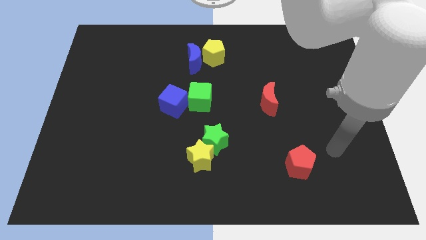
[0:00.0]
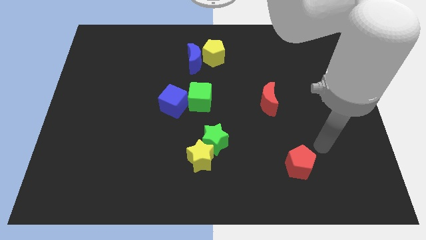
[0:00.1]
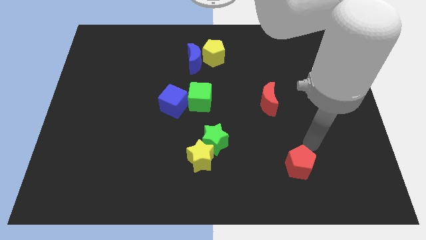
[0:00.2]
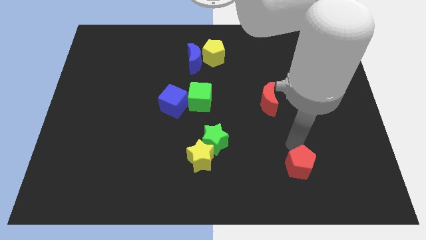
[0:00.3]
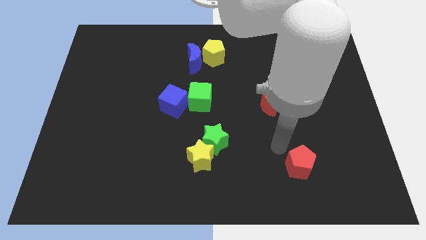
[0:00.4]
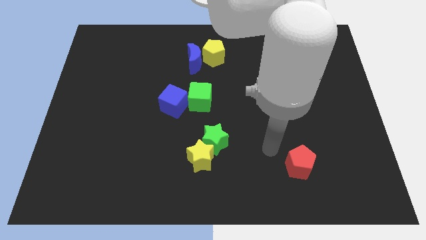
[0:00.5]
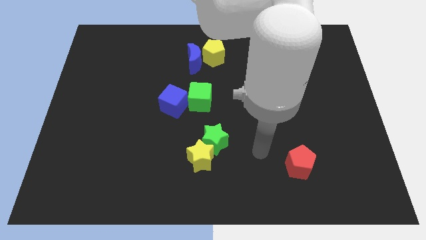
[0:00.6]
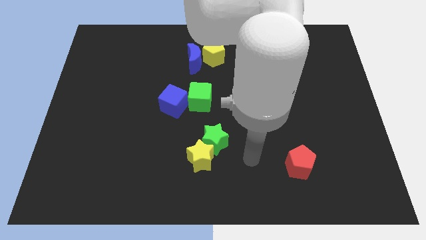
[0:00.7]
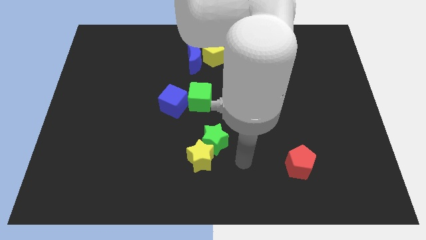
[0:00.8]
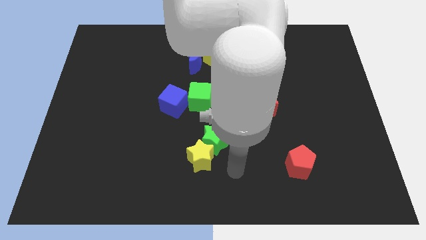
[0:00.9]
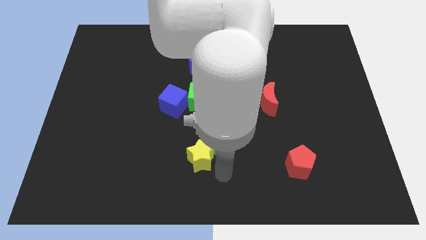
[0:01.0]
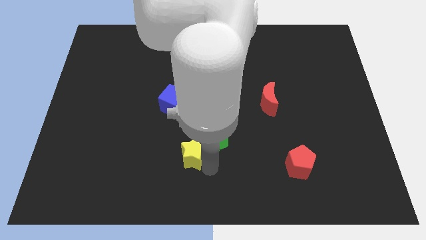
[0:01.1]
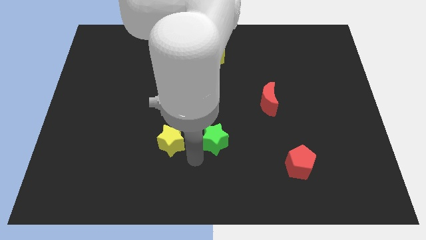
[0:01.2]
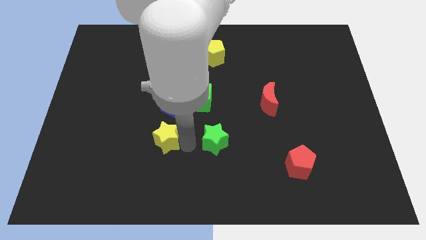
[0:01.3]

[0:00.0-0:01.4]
pull the green star apart from the yellow star

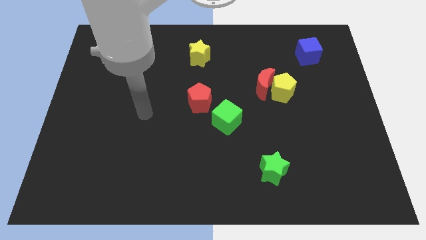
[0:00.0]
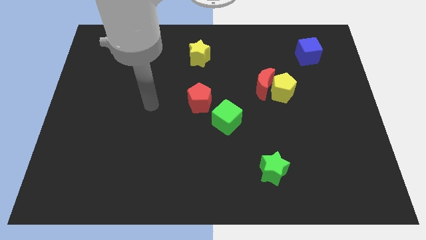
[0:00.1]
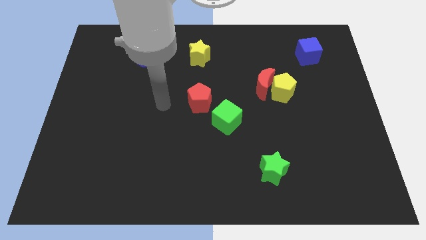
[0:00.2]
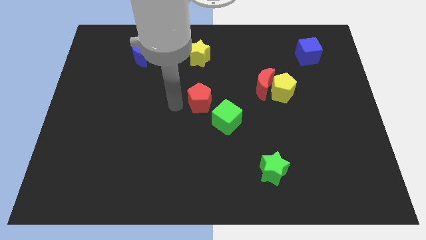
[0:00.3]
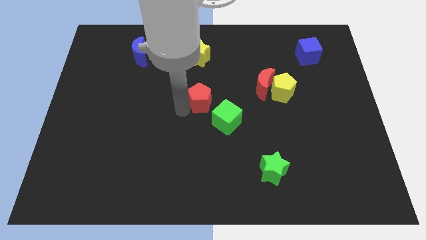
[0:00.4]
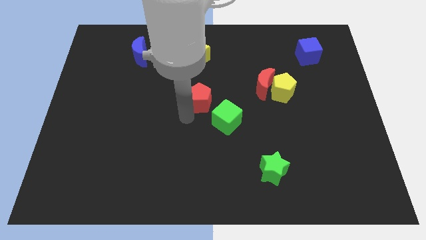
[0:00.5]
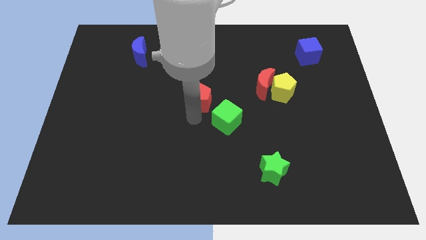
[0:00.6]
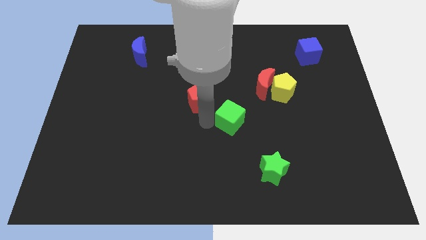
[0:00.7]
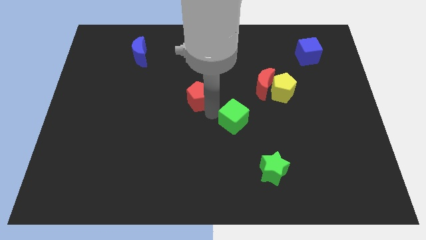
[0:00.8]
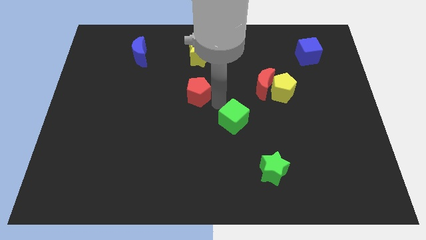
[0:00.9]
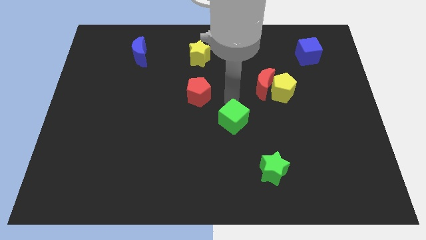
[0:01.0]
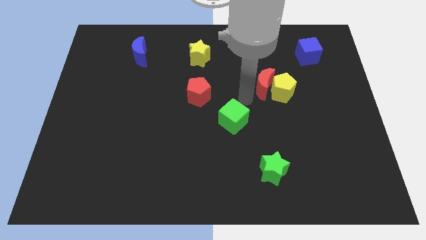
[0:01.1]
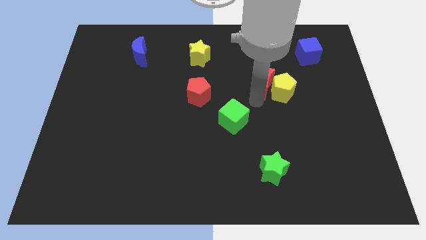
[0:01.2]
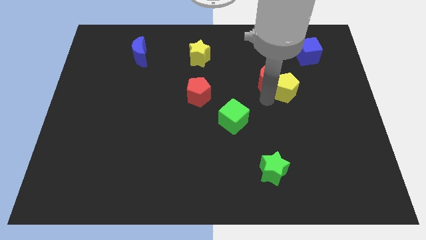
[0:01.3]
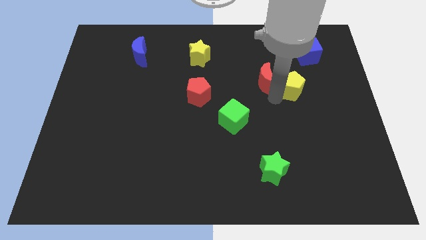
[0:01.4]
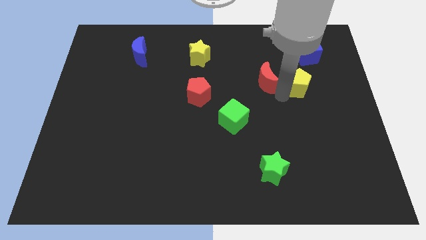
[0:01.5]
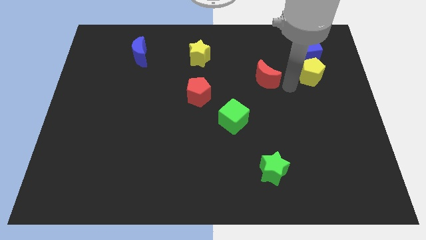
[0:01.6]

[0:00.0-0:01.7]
move the red moon away from the yellow pentagon

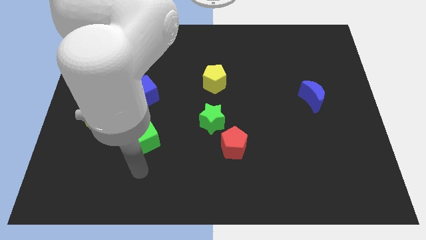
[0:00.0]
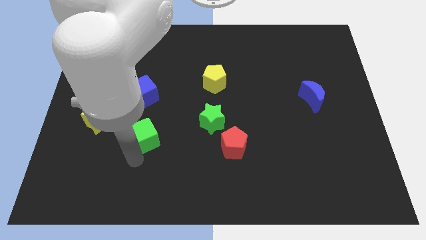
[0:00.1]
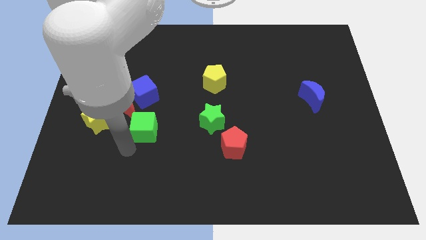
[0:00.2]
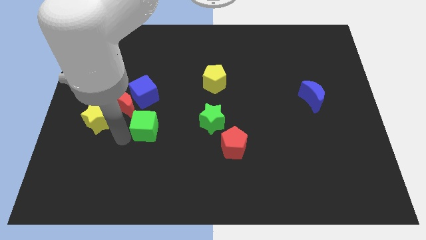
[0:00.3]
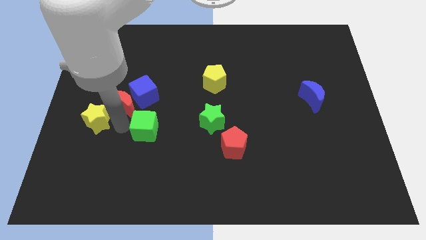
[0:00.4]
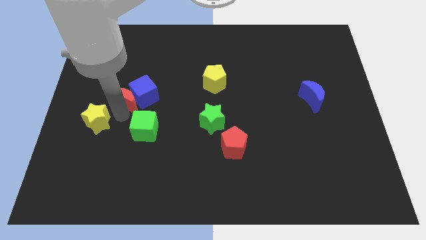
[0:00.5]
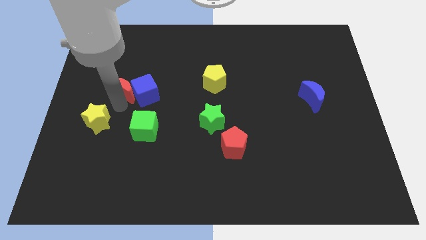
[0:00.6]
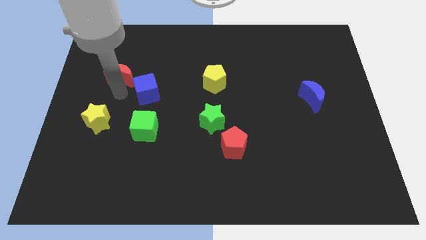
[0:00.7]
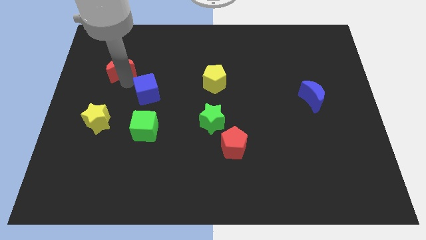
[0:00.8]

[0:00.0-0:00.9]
move the blue cube away from the red moon

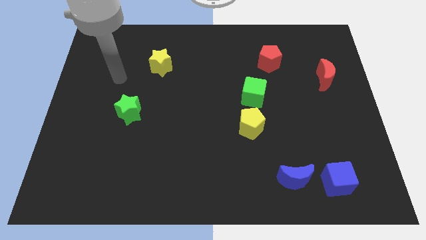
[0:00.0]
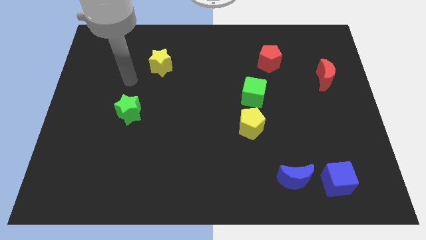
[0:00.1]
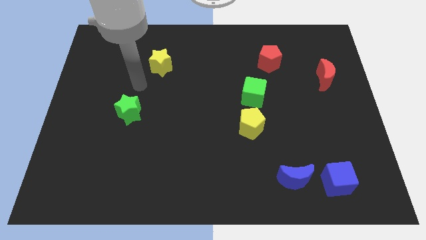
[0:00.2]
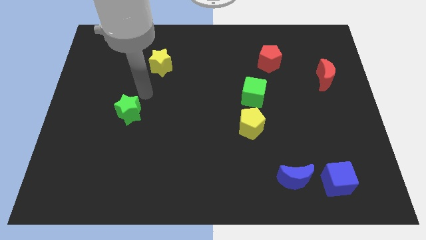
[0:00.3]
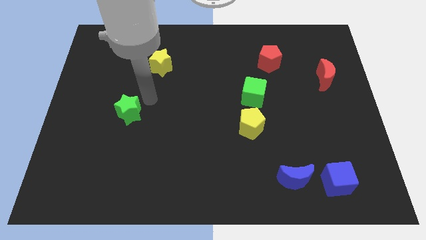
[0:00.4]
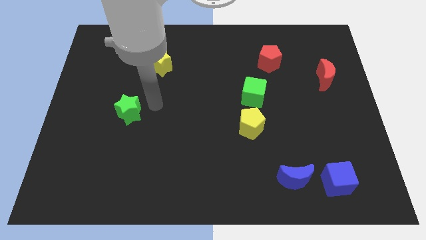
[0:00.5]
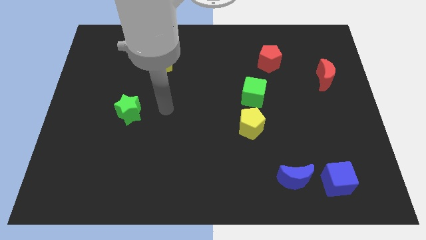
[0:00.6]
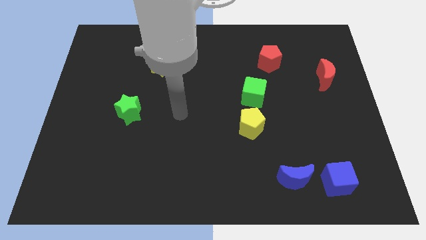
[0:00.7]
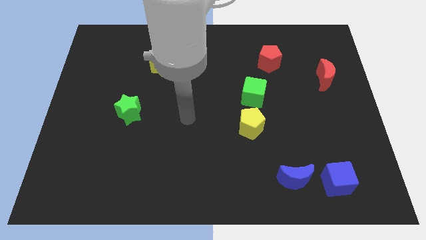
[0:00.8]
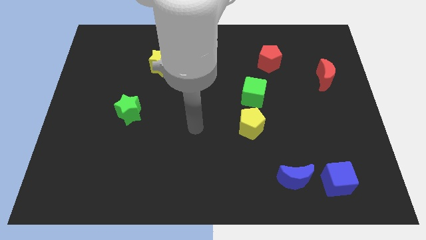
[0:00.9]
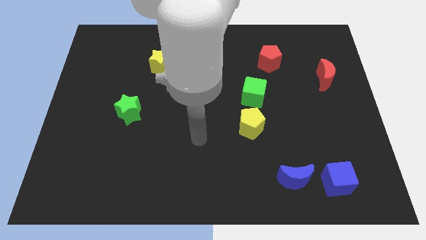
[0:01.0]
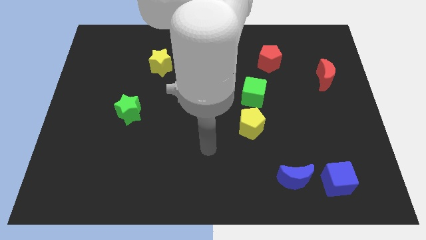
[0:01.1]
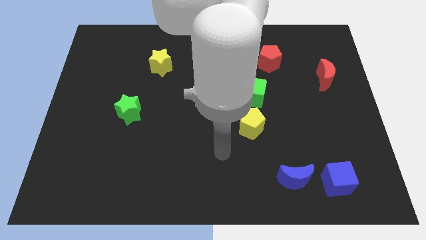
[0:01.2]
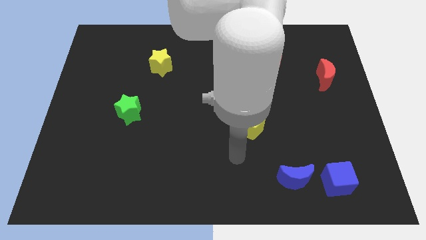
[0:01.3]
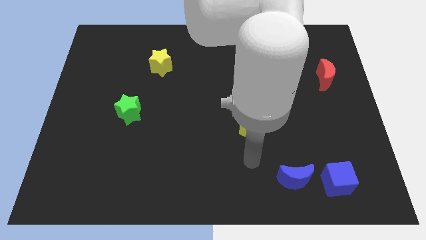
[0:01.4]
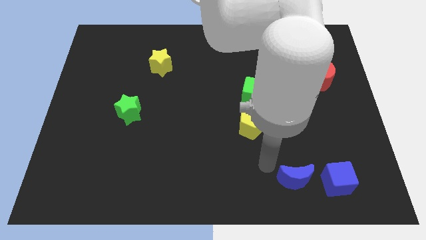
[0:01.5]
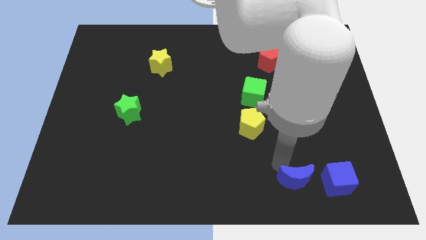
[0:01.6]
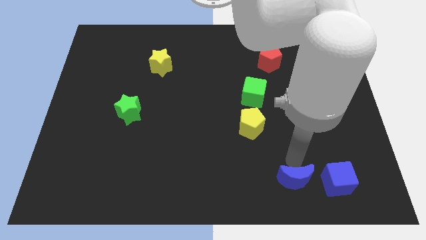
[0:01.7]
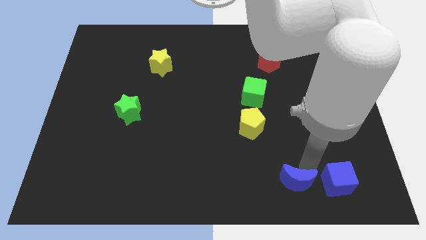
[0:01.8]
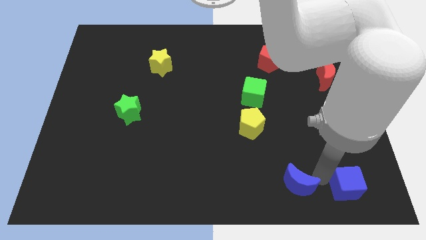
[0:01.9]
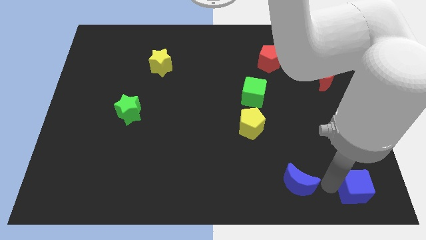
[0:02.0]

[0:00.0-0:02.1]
separate the blue moon from the blue cube

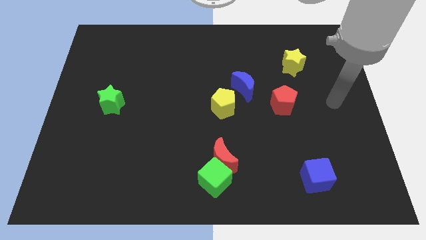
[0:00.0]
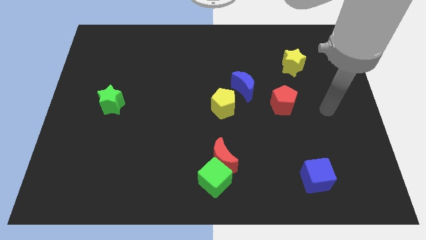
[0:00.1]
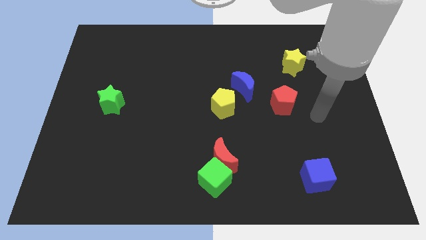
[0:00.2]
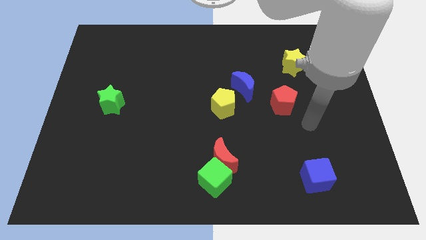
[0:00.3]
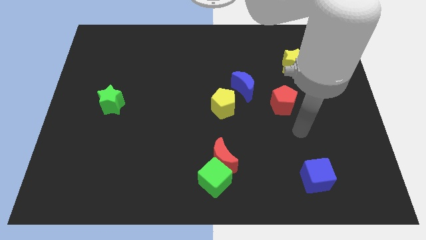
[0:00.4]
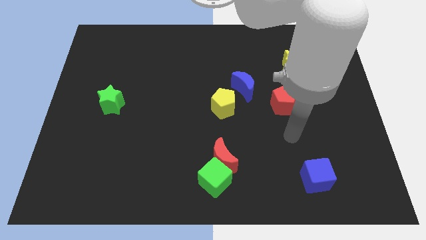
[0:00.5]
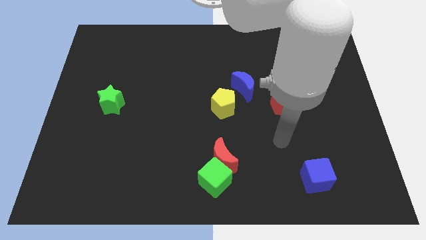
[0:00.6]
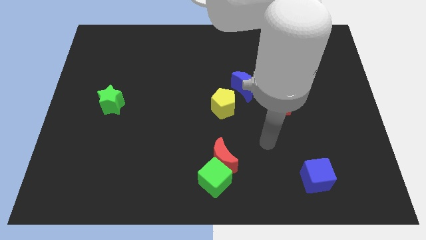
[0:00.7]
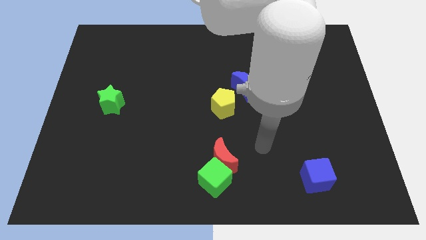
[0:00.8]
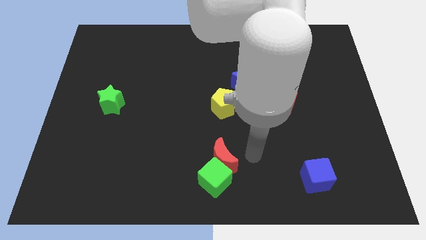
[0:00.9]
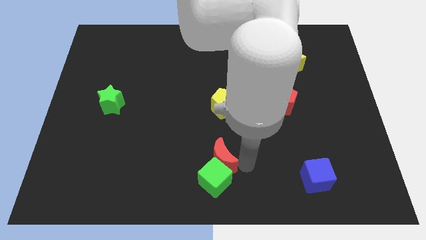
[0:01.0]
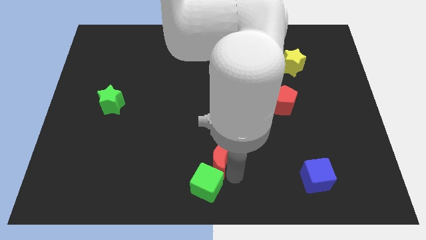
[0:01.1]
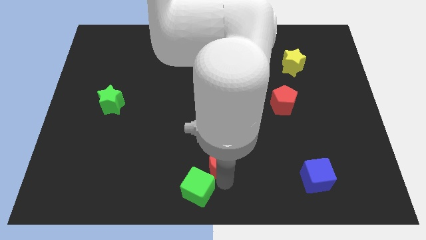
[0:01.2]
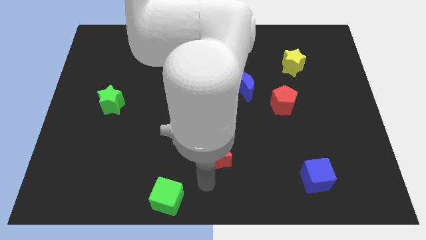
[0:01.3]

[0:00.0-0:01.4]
pull the red moon apart from the green cube

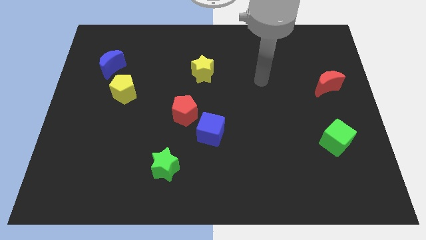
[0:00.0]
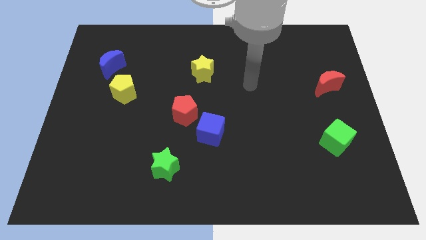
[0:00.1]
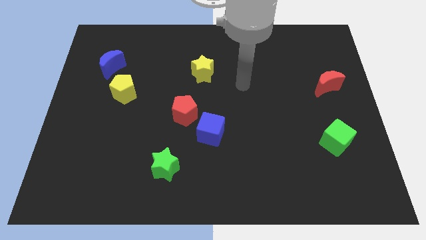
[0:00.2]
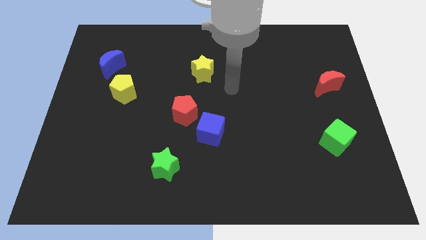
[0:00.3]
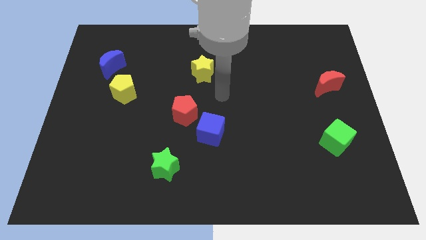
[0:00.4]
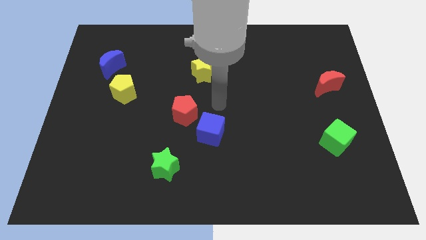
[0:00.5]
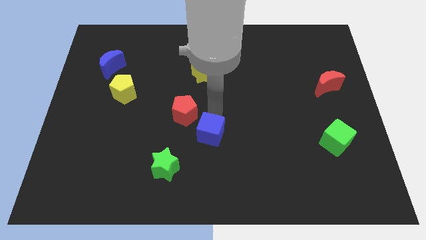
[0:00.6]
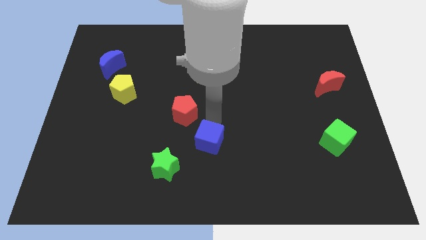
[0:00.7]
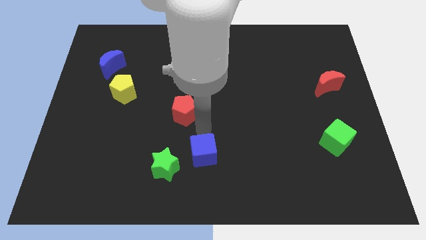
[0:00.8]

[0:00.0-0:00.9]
pull the red pentagon apart from the blue cube

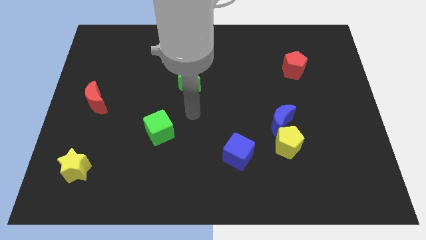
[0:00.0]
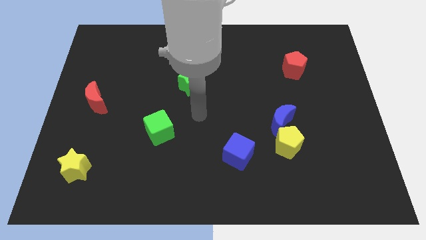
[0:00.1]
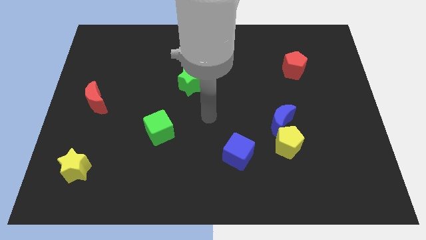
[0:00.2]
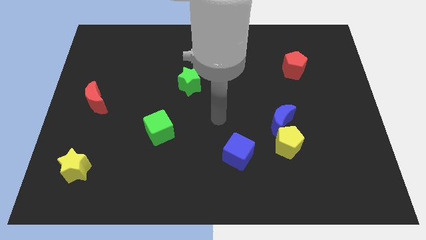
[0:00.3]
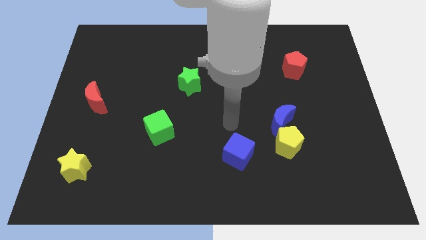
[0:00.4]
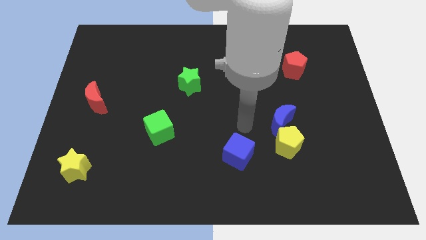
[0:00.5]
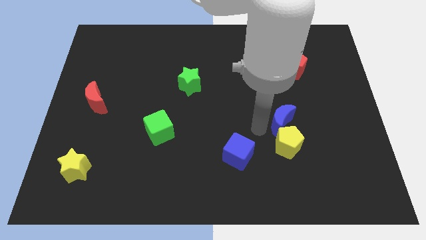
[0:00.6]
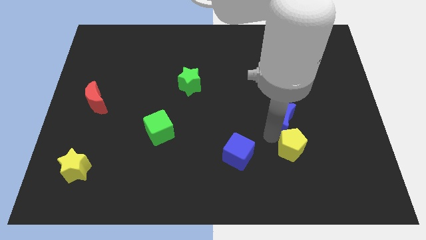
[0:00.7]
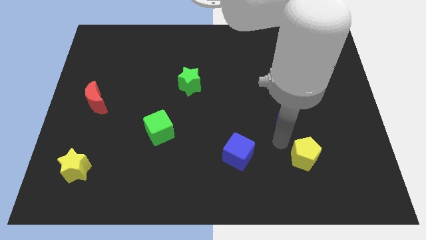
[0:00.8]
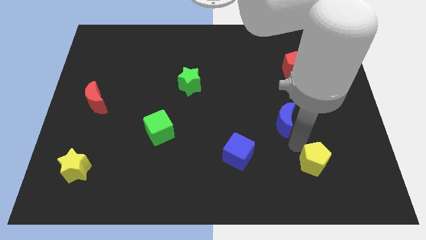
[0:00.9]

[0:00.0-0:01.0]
move the blue moon away from the yellow pentagon
